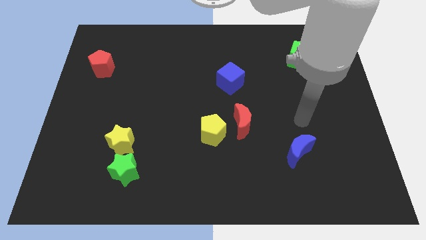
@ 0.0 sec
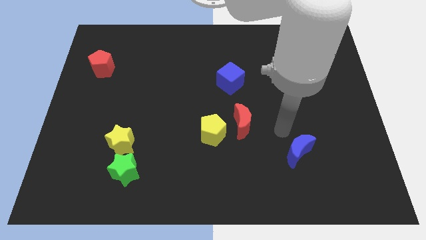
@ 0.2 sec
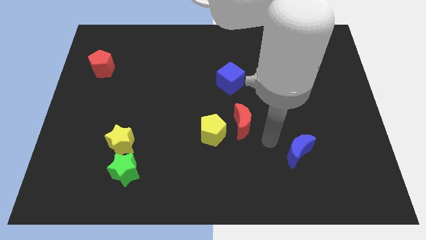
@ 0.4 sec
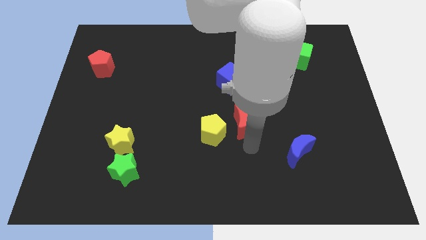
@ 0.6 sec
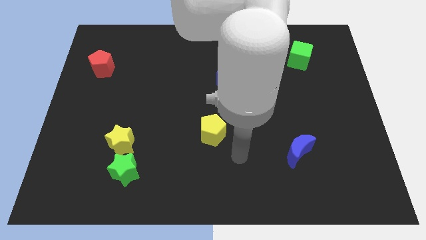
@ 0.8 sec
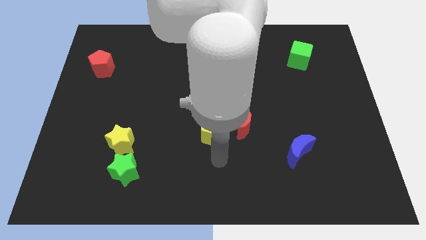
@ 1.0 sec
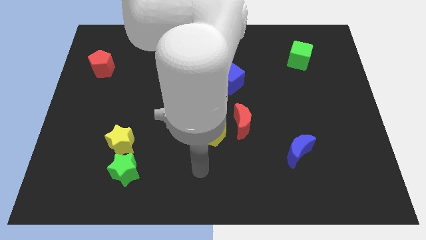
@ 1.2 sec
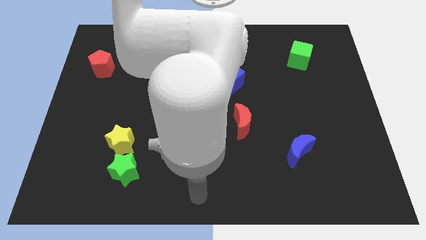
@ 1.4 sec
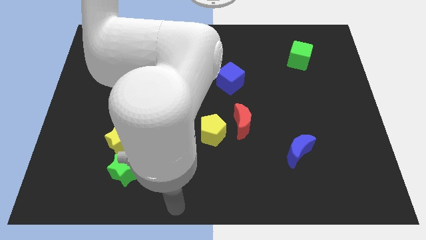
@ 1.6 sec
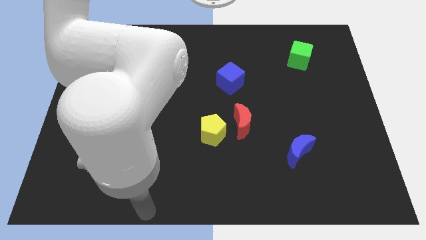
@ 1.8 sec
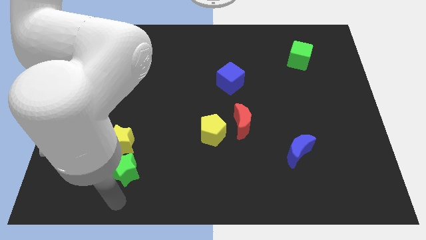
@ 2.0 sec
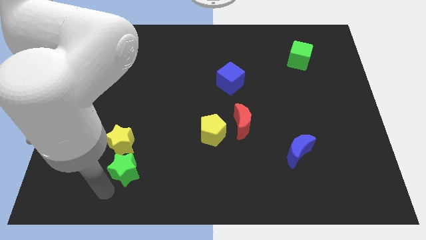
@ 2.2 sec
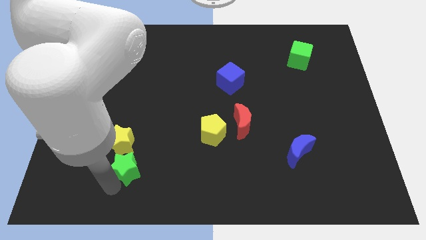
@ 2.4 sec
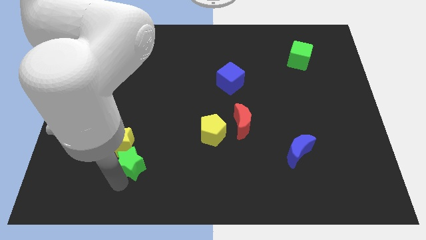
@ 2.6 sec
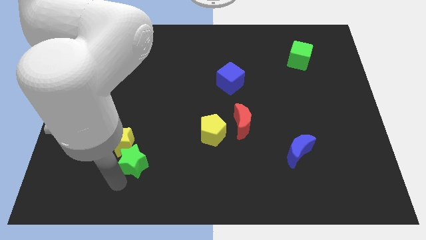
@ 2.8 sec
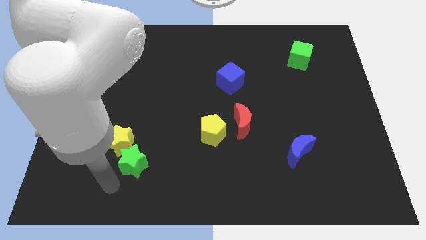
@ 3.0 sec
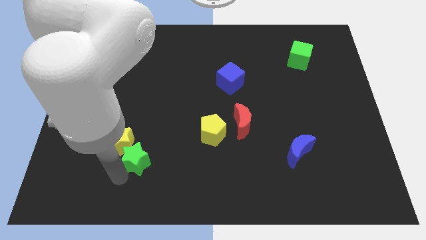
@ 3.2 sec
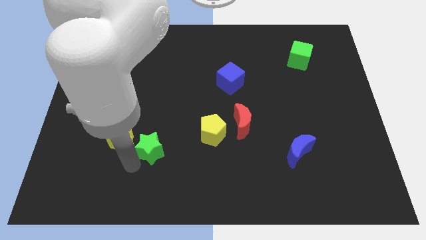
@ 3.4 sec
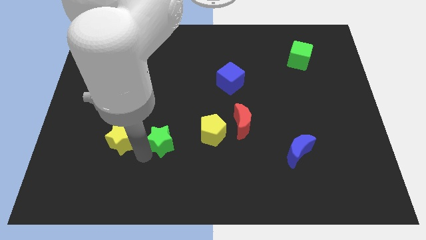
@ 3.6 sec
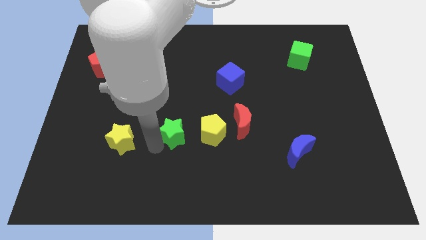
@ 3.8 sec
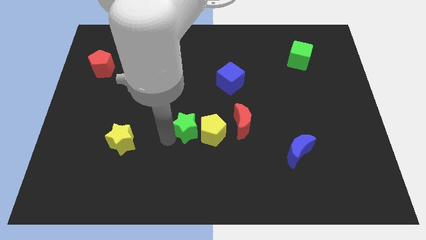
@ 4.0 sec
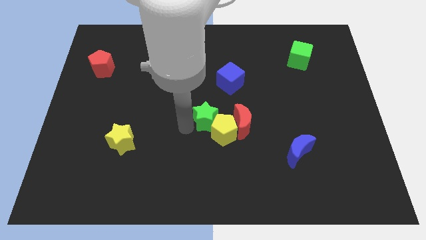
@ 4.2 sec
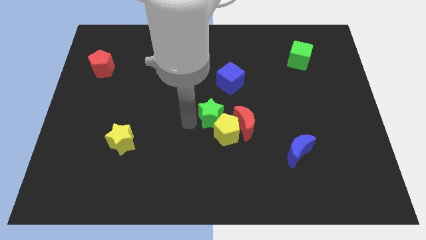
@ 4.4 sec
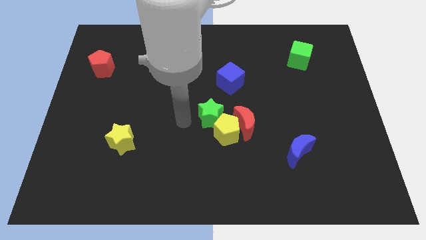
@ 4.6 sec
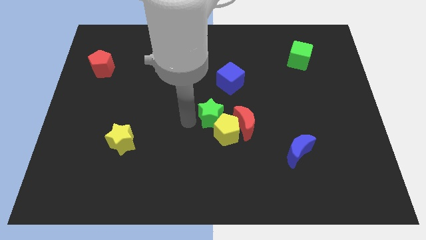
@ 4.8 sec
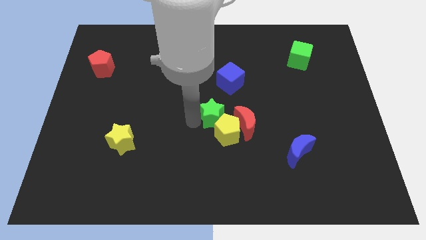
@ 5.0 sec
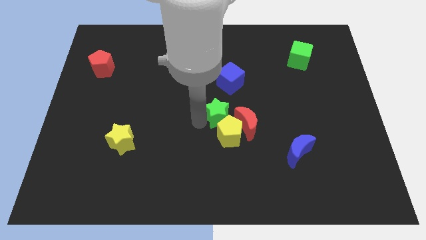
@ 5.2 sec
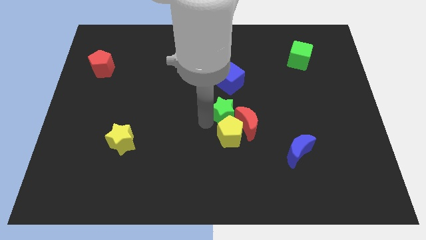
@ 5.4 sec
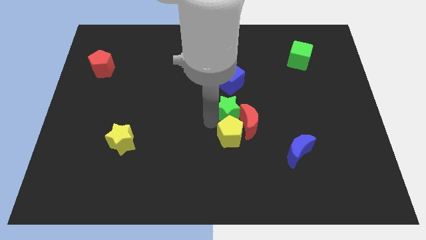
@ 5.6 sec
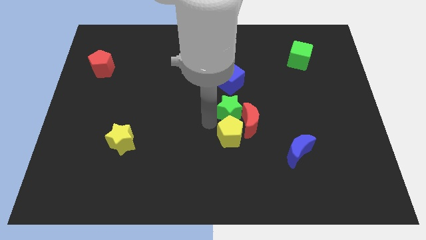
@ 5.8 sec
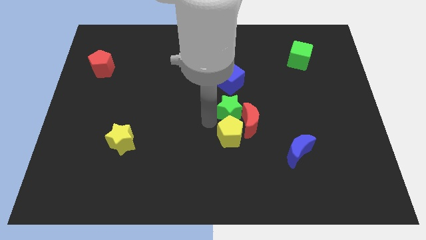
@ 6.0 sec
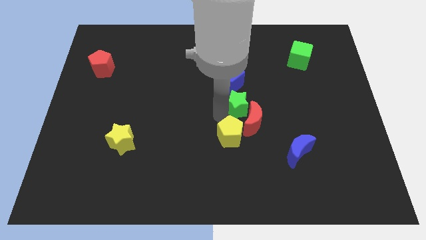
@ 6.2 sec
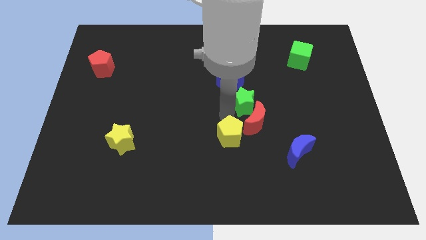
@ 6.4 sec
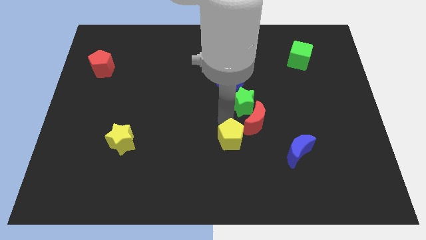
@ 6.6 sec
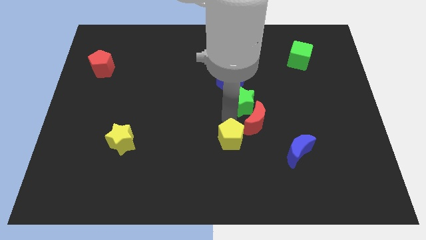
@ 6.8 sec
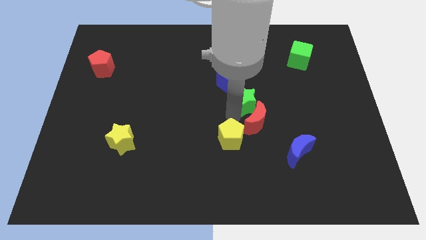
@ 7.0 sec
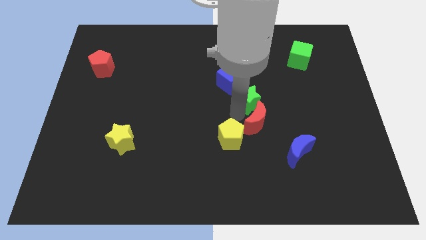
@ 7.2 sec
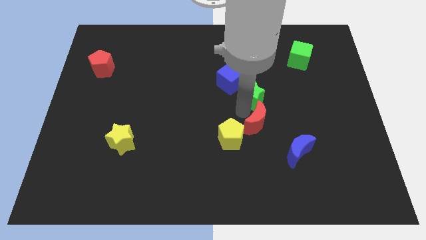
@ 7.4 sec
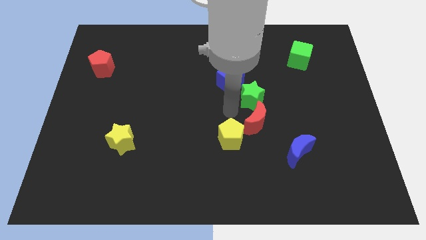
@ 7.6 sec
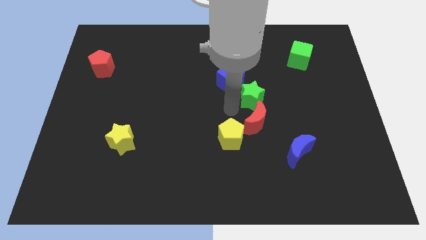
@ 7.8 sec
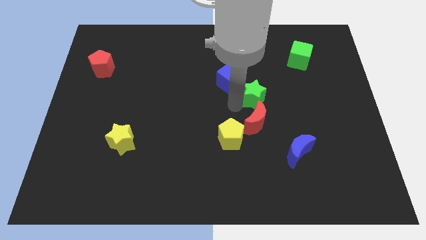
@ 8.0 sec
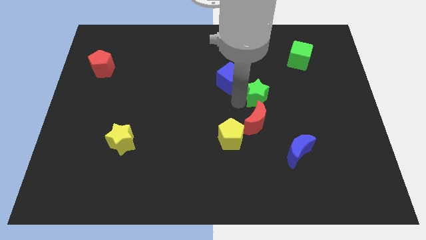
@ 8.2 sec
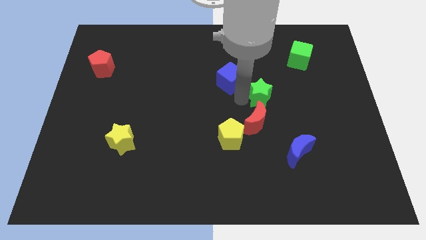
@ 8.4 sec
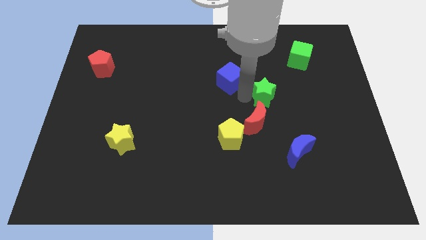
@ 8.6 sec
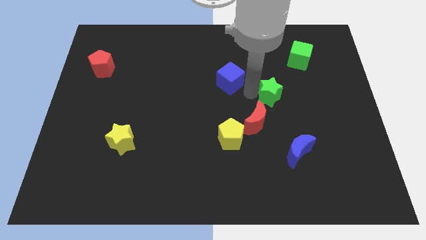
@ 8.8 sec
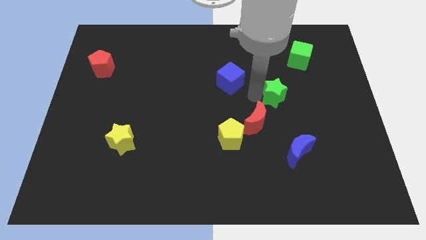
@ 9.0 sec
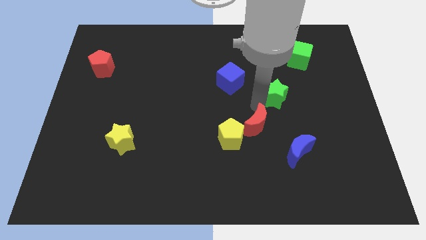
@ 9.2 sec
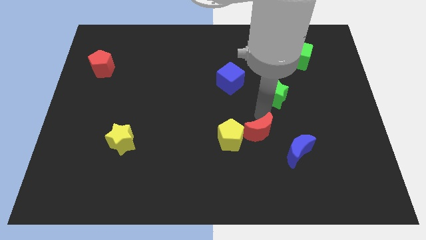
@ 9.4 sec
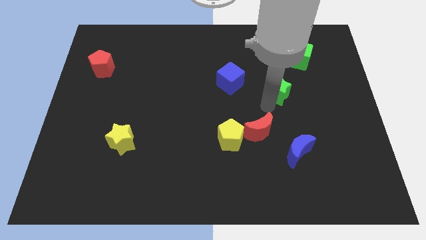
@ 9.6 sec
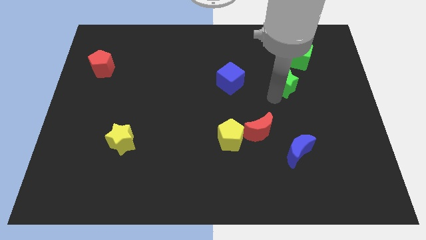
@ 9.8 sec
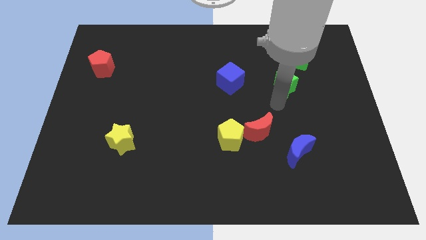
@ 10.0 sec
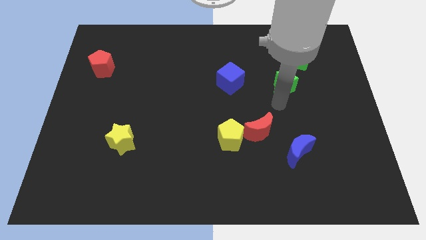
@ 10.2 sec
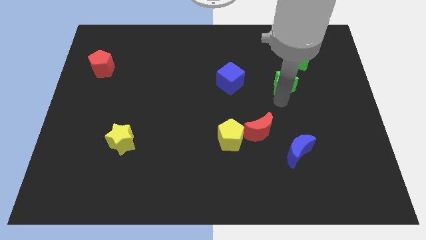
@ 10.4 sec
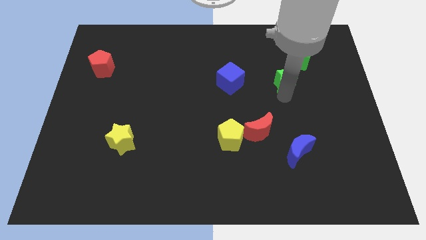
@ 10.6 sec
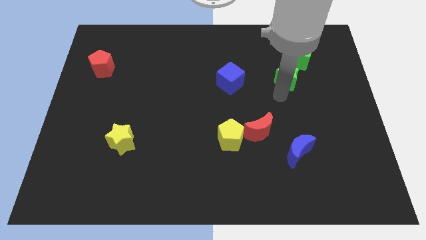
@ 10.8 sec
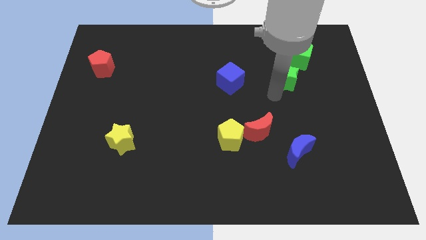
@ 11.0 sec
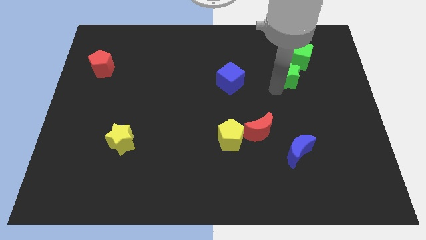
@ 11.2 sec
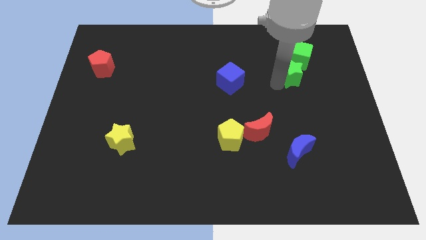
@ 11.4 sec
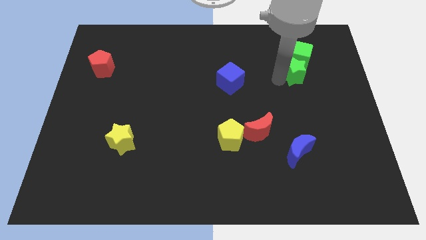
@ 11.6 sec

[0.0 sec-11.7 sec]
put the green star to the green cube

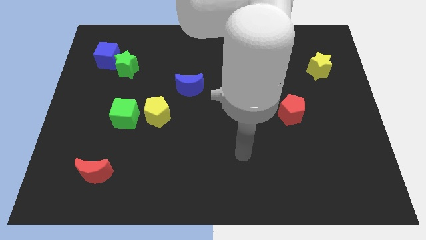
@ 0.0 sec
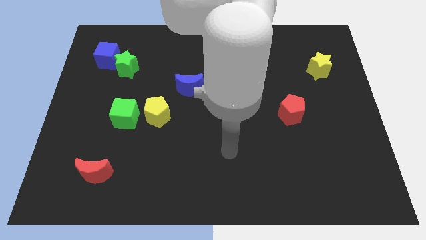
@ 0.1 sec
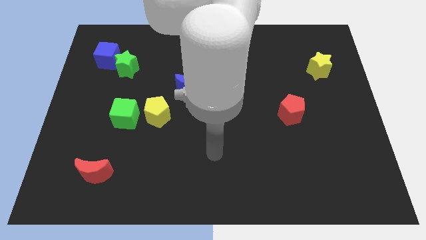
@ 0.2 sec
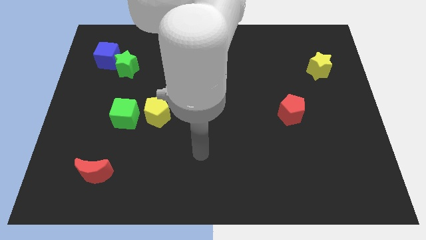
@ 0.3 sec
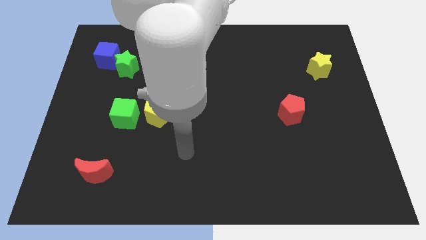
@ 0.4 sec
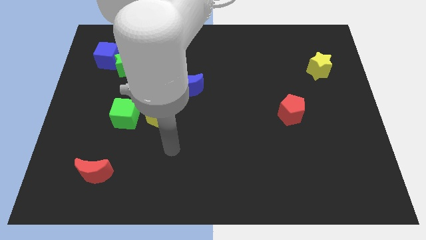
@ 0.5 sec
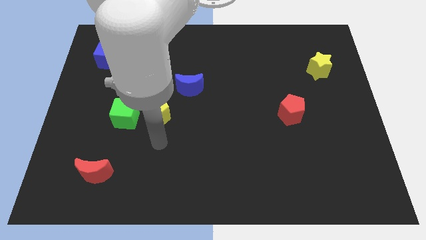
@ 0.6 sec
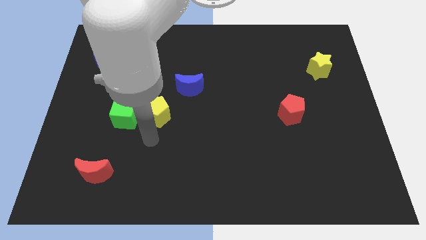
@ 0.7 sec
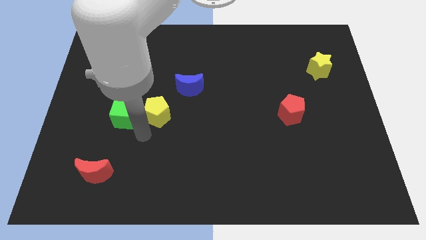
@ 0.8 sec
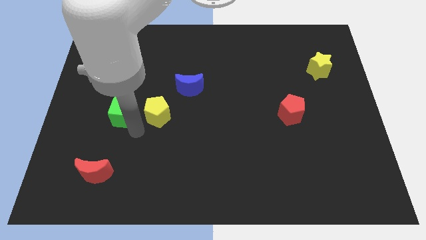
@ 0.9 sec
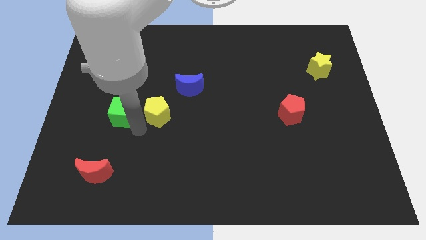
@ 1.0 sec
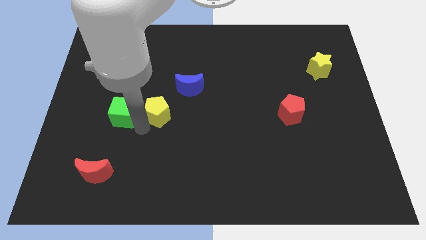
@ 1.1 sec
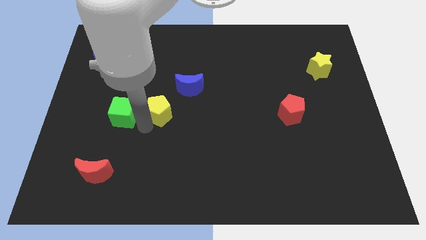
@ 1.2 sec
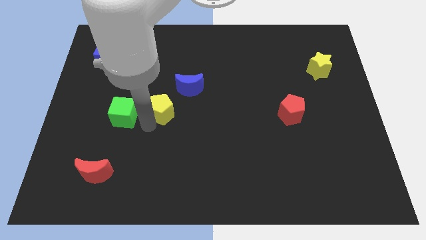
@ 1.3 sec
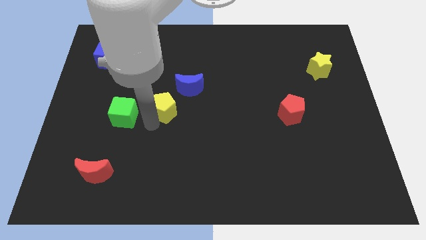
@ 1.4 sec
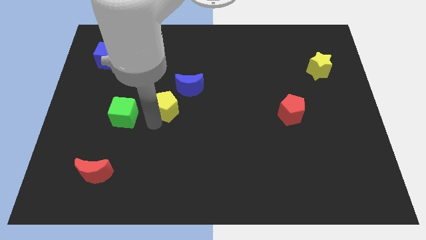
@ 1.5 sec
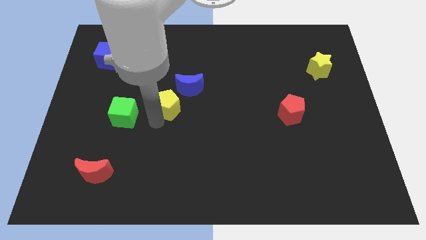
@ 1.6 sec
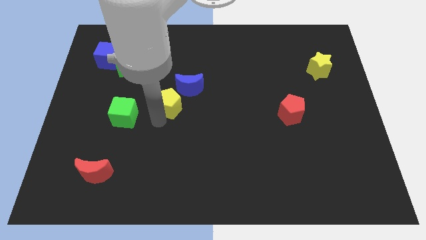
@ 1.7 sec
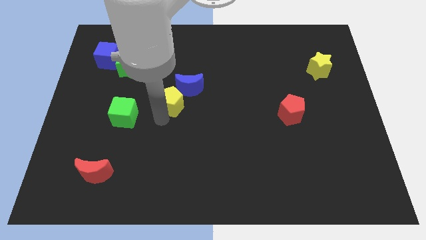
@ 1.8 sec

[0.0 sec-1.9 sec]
put the yellow pentagon towards the blue moon
